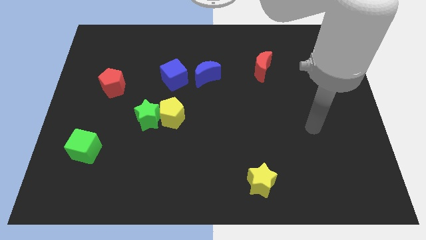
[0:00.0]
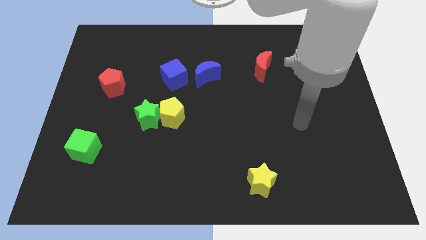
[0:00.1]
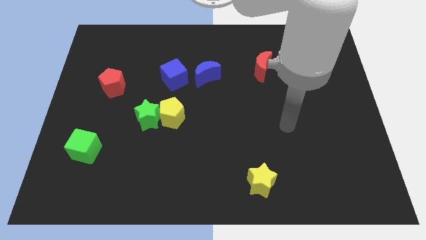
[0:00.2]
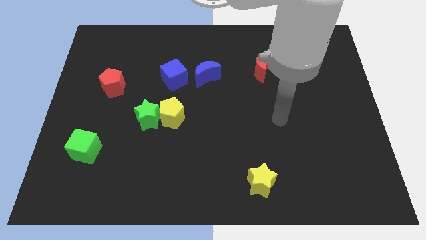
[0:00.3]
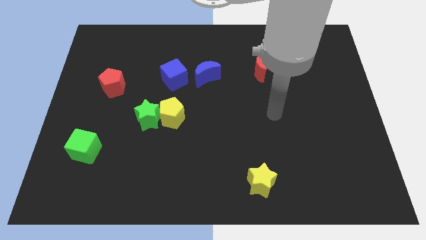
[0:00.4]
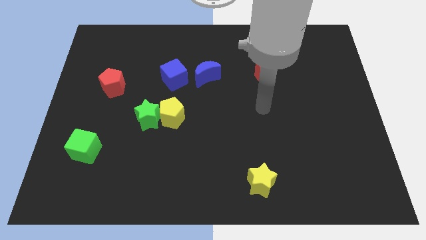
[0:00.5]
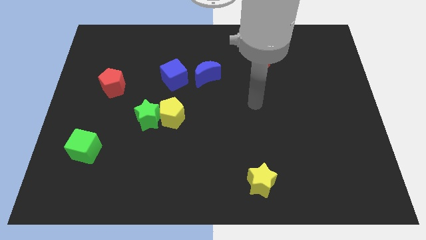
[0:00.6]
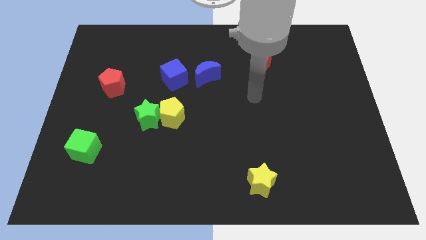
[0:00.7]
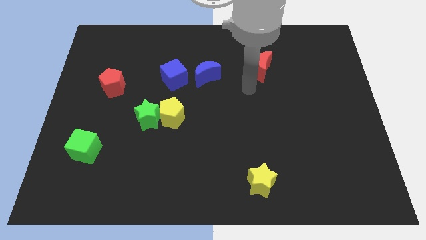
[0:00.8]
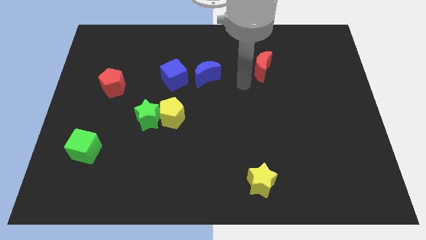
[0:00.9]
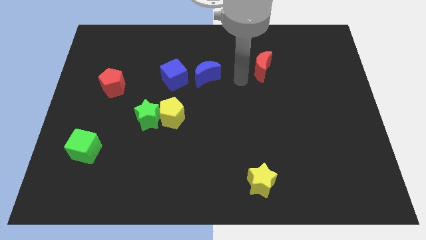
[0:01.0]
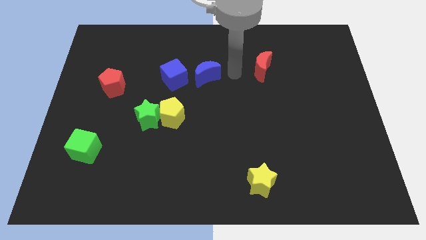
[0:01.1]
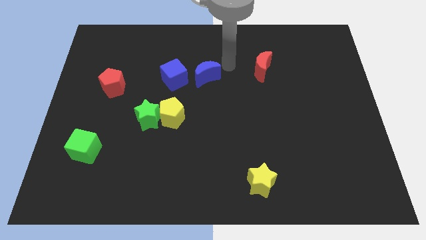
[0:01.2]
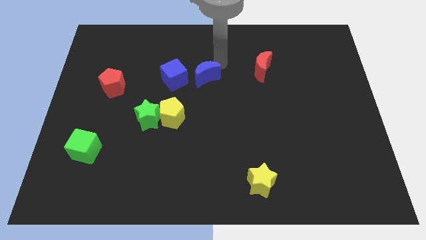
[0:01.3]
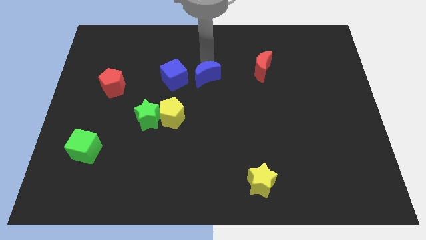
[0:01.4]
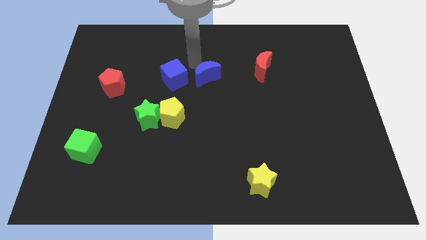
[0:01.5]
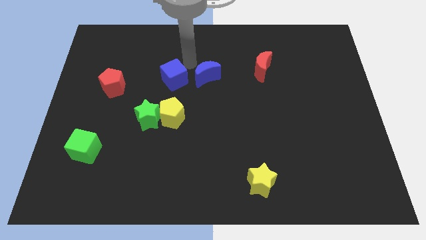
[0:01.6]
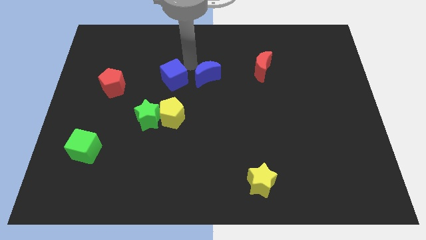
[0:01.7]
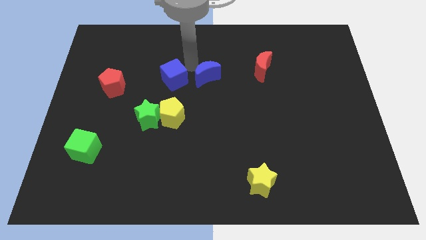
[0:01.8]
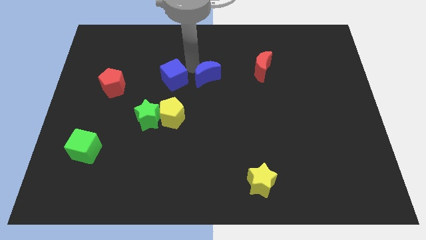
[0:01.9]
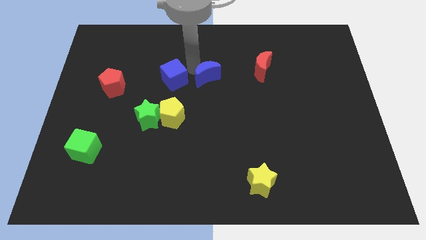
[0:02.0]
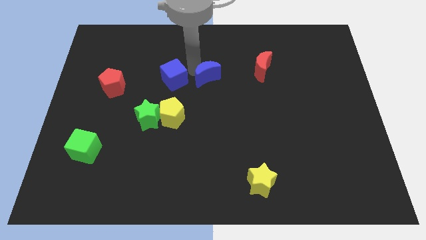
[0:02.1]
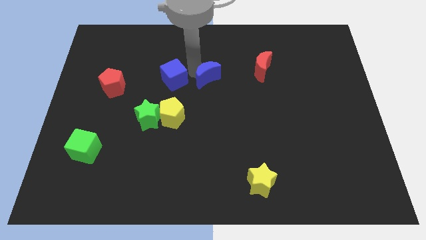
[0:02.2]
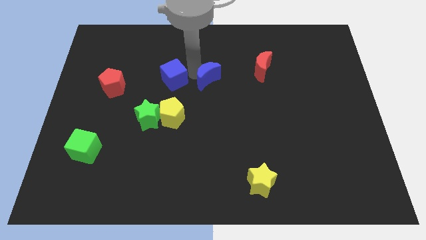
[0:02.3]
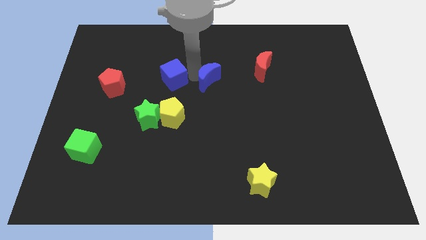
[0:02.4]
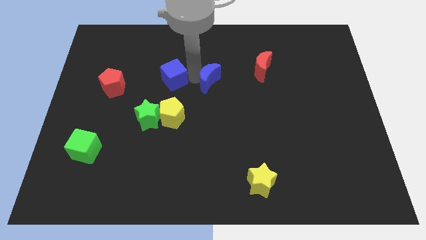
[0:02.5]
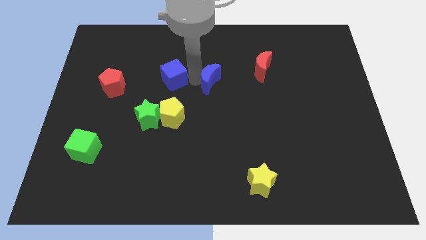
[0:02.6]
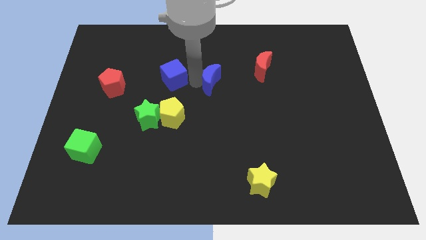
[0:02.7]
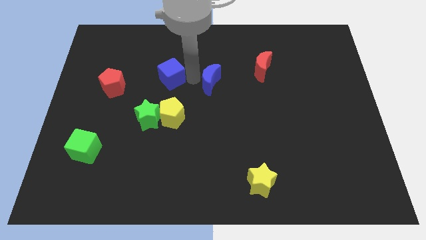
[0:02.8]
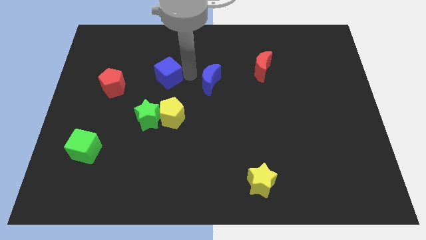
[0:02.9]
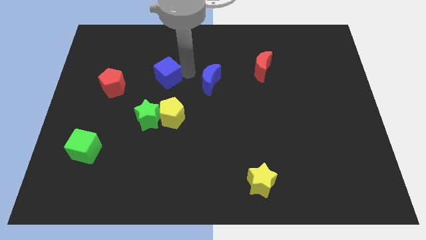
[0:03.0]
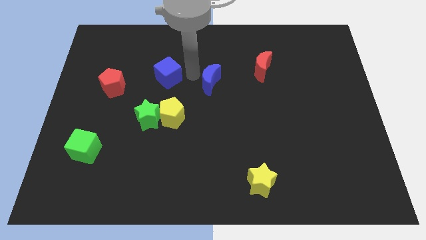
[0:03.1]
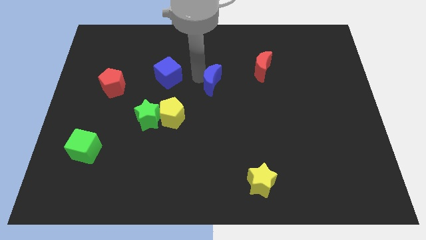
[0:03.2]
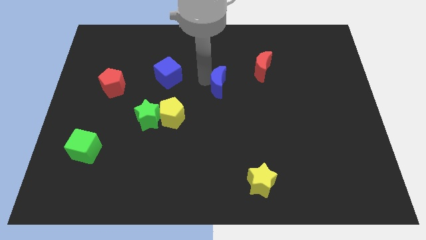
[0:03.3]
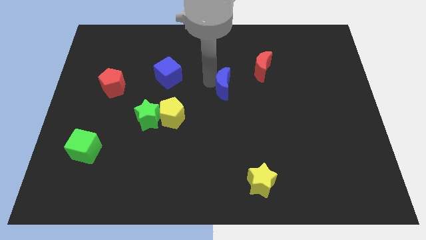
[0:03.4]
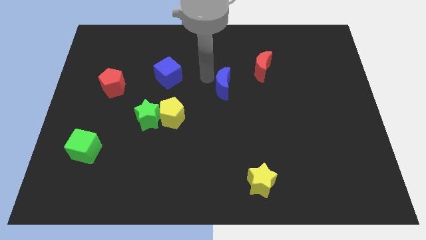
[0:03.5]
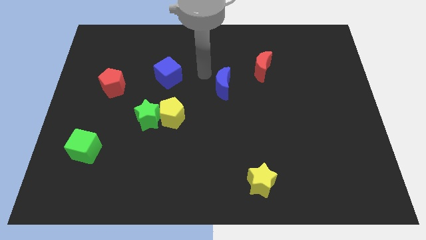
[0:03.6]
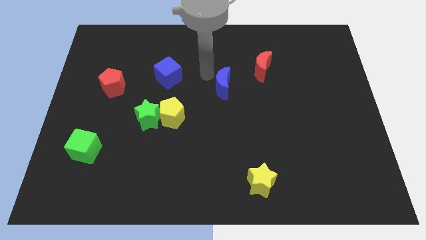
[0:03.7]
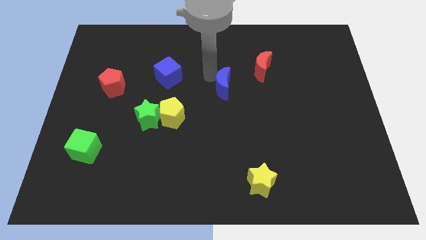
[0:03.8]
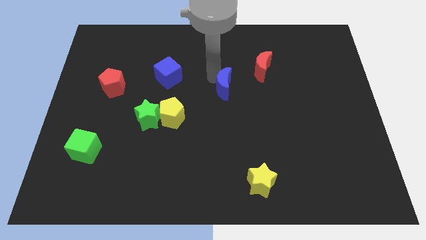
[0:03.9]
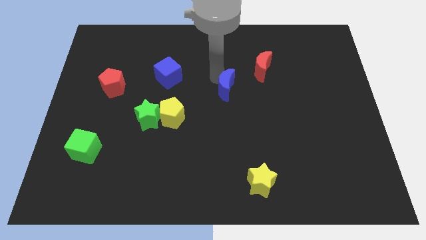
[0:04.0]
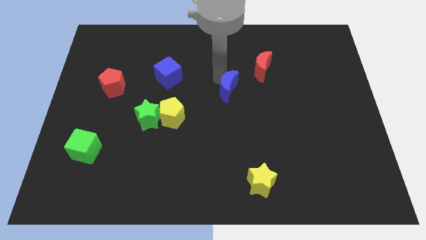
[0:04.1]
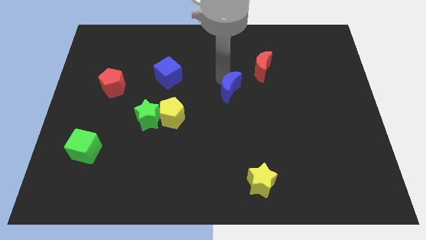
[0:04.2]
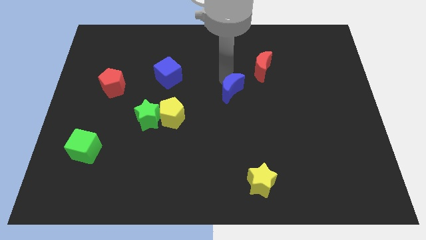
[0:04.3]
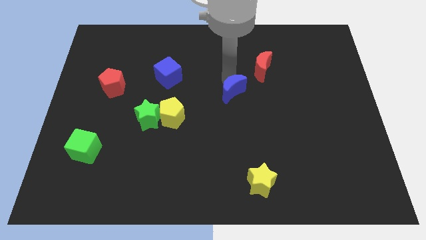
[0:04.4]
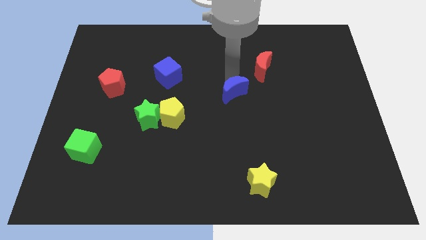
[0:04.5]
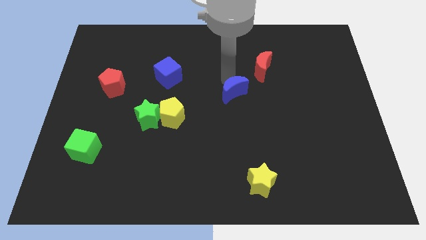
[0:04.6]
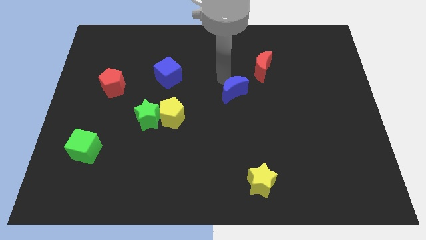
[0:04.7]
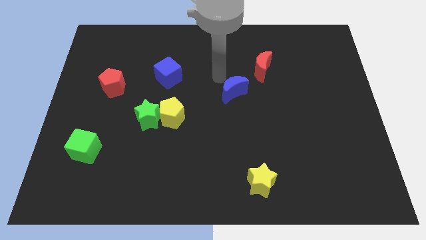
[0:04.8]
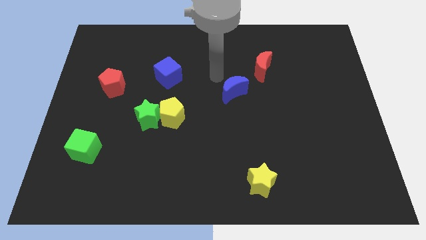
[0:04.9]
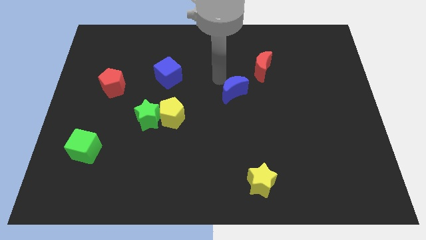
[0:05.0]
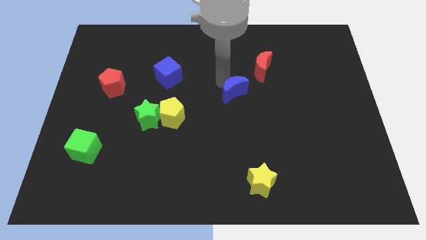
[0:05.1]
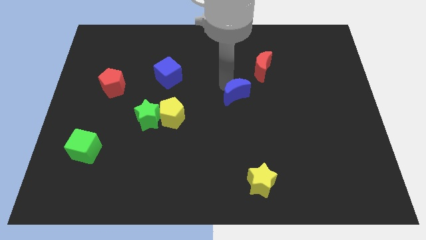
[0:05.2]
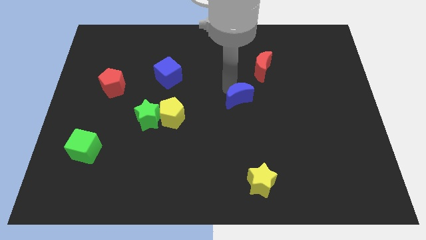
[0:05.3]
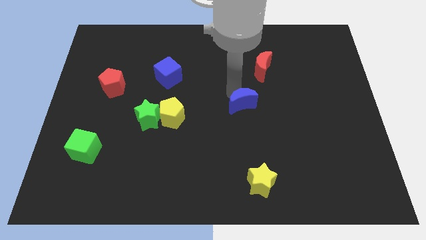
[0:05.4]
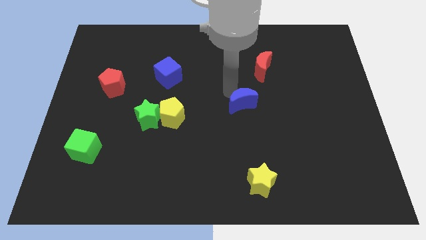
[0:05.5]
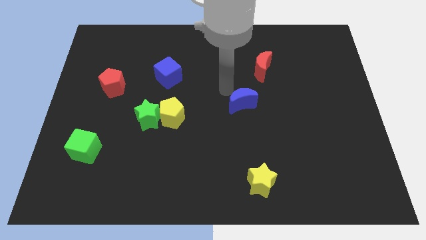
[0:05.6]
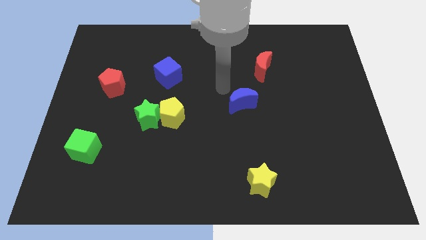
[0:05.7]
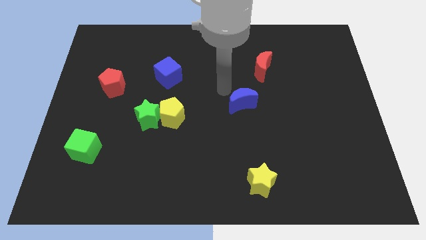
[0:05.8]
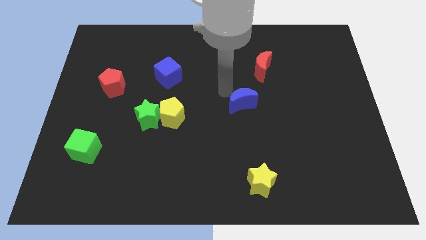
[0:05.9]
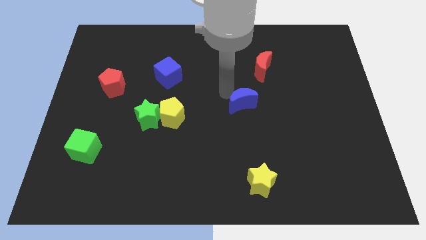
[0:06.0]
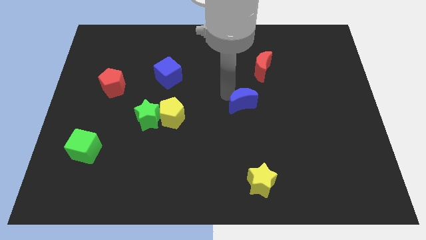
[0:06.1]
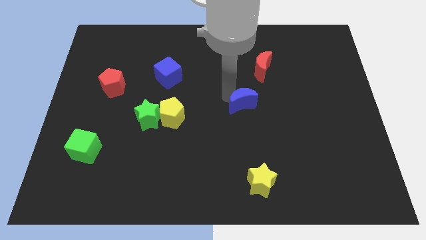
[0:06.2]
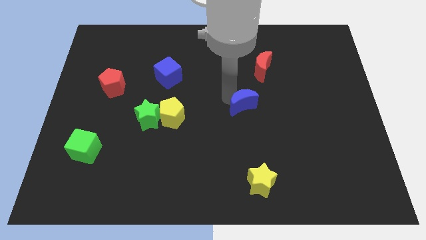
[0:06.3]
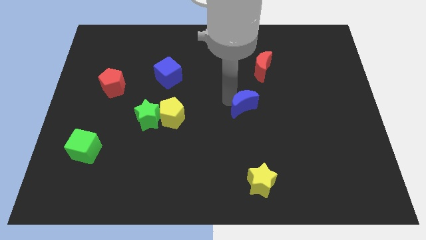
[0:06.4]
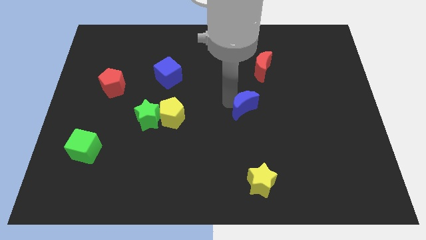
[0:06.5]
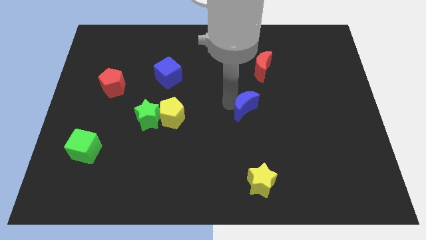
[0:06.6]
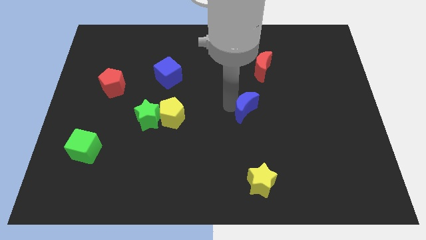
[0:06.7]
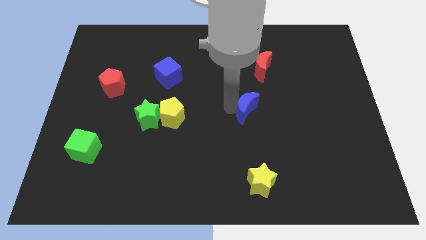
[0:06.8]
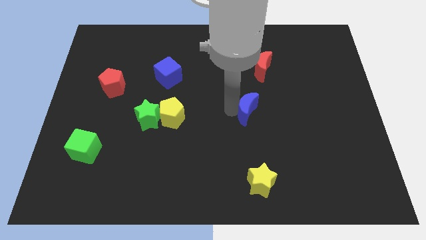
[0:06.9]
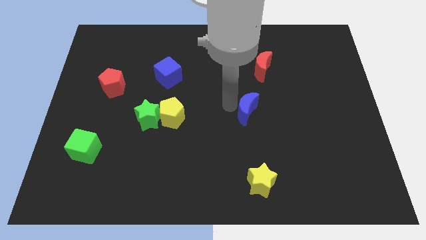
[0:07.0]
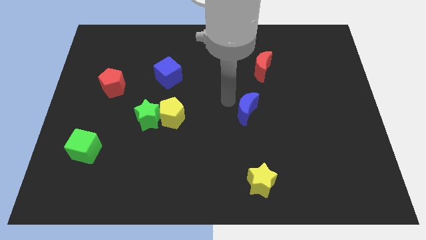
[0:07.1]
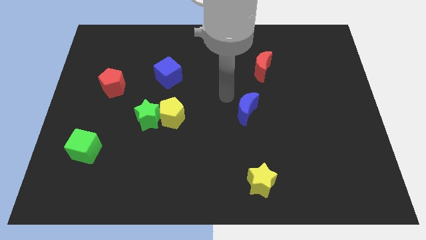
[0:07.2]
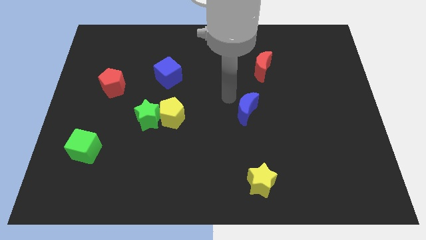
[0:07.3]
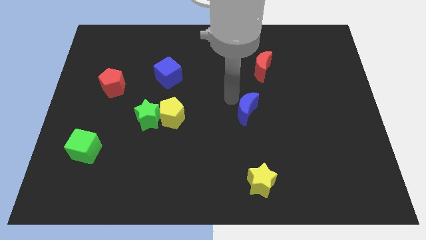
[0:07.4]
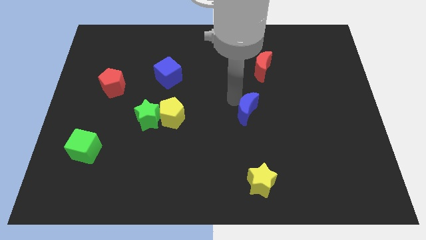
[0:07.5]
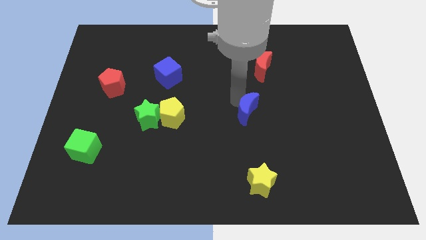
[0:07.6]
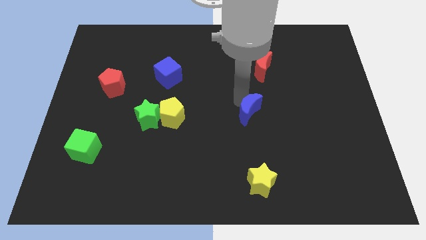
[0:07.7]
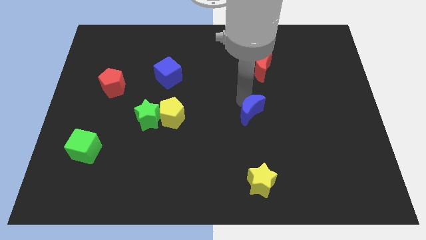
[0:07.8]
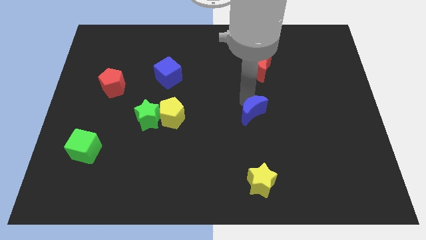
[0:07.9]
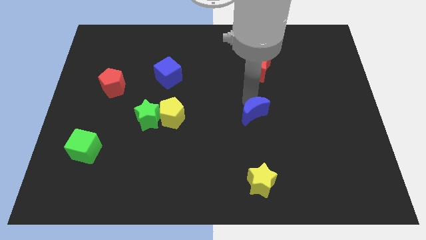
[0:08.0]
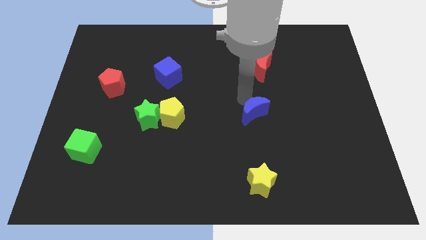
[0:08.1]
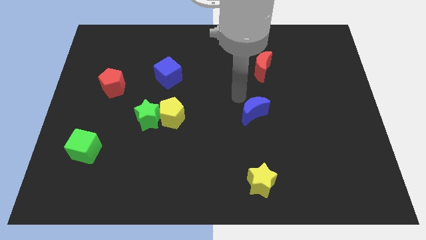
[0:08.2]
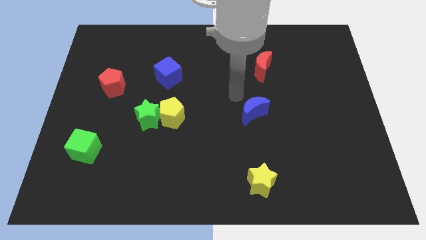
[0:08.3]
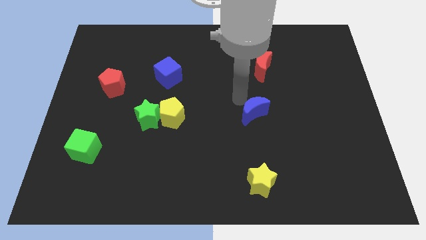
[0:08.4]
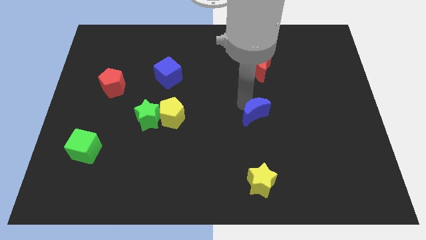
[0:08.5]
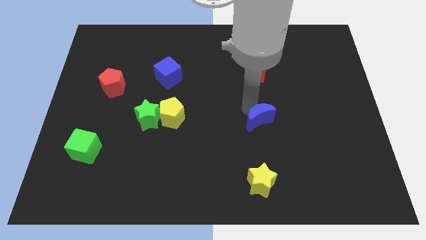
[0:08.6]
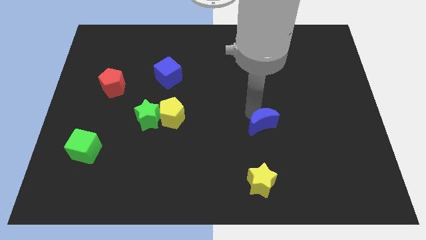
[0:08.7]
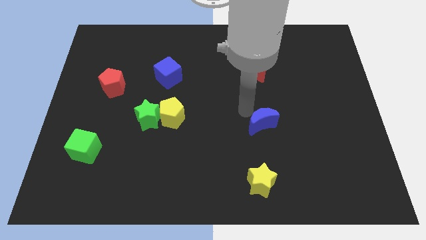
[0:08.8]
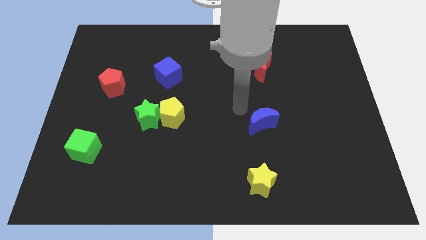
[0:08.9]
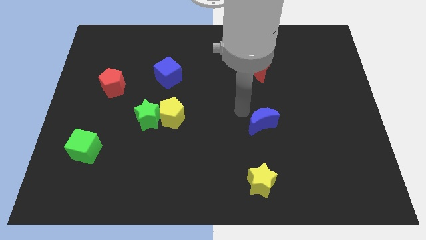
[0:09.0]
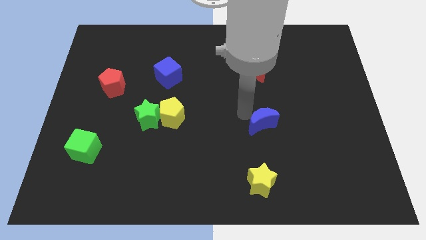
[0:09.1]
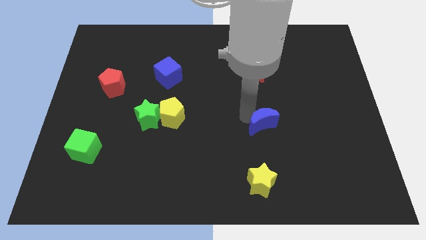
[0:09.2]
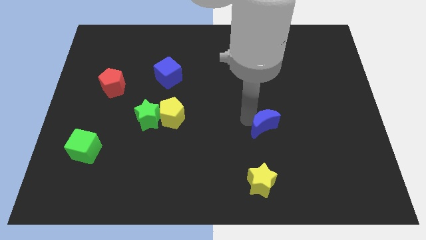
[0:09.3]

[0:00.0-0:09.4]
push the blue moon downwards and to the right
